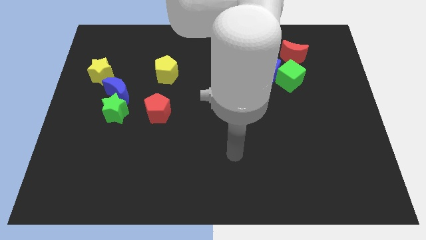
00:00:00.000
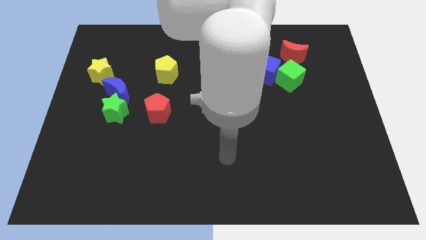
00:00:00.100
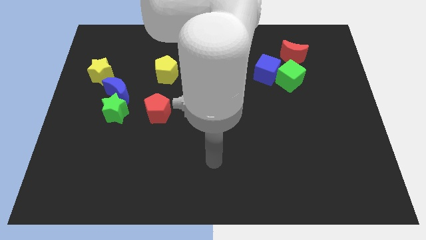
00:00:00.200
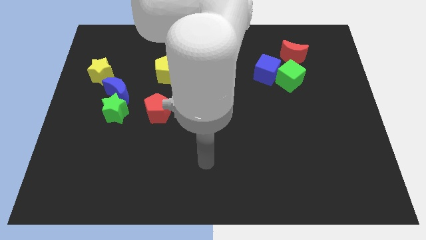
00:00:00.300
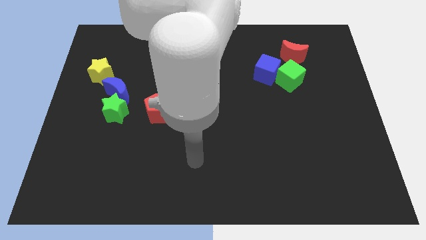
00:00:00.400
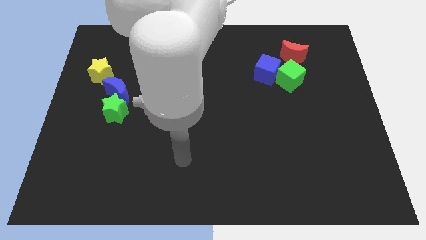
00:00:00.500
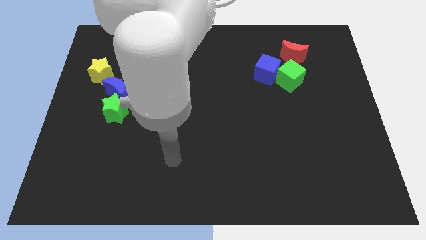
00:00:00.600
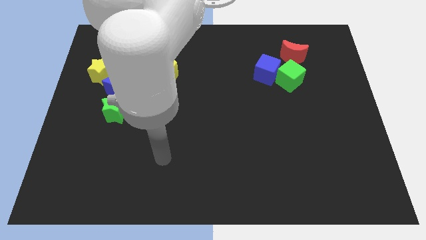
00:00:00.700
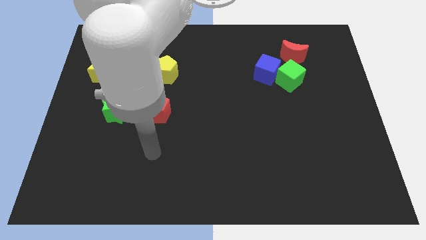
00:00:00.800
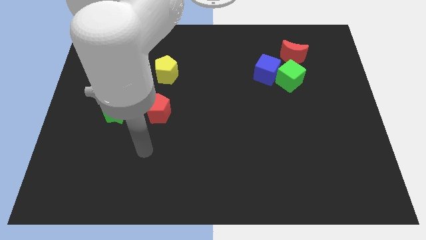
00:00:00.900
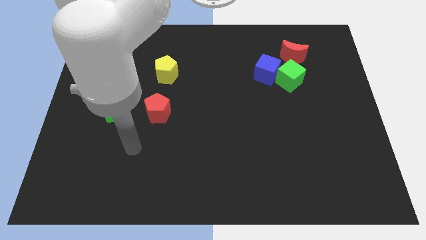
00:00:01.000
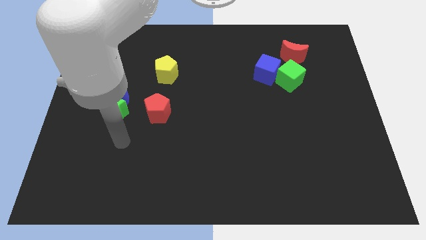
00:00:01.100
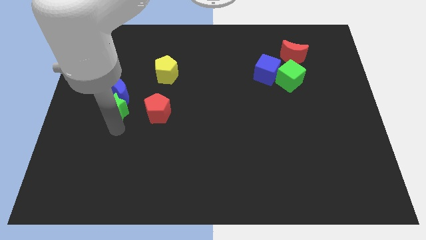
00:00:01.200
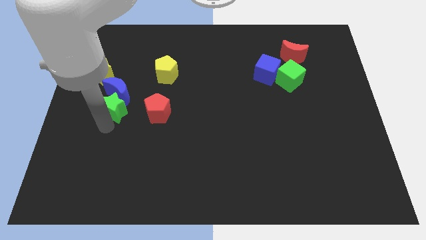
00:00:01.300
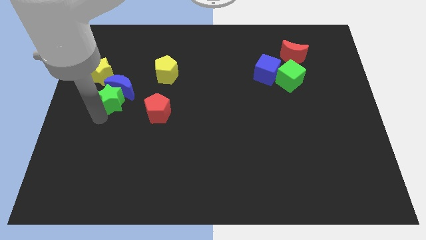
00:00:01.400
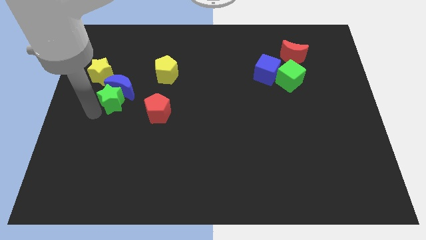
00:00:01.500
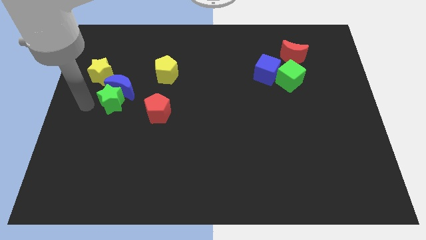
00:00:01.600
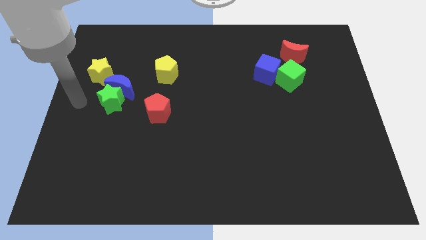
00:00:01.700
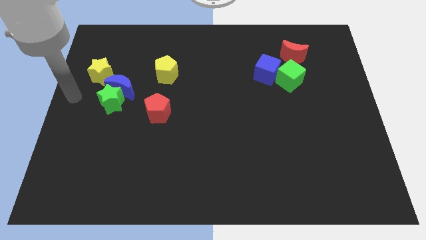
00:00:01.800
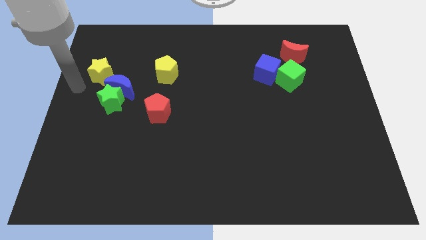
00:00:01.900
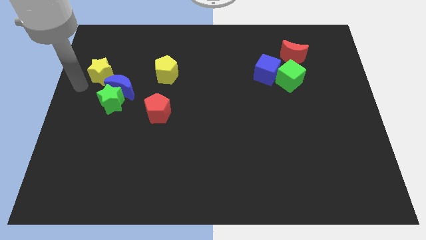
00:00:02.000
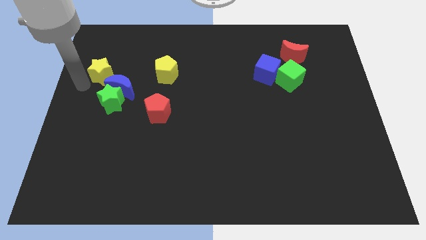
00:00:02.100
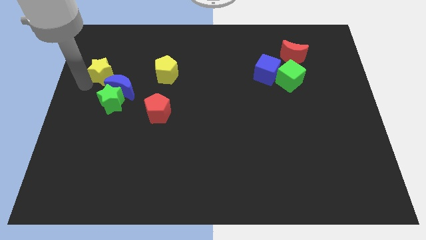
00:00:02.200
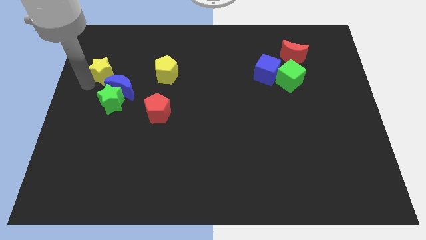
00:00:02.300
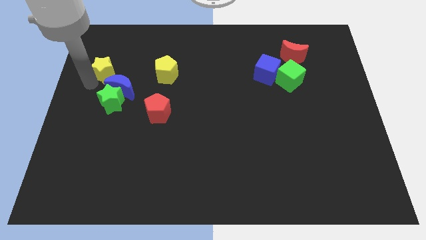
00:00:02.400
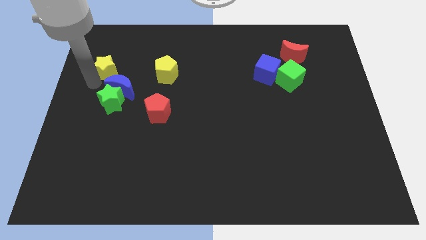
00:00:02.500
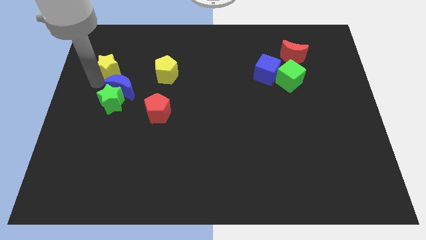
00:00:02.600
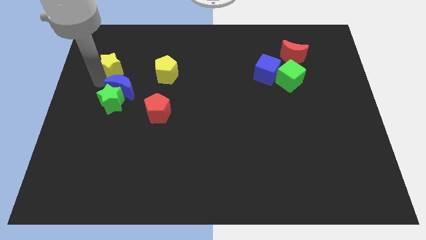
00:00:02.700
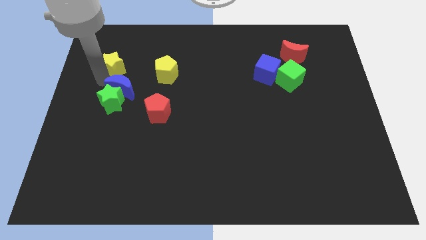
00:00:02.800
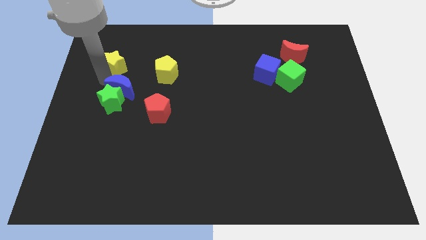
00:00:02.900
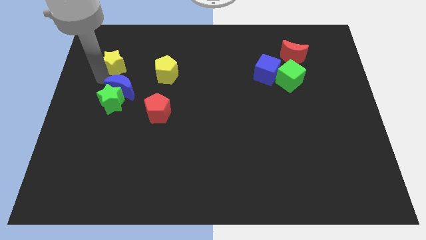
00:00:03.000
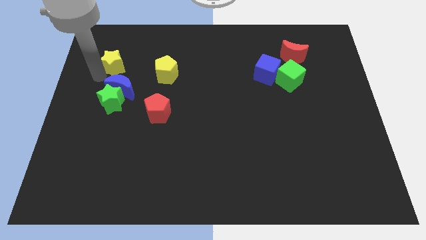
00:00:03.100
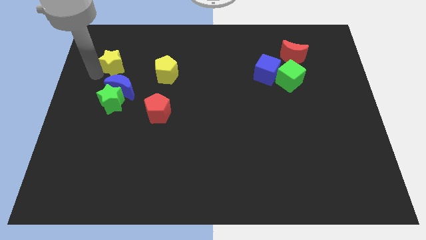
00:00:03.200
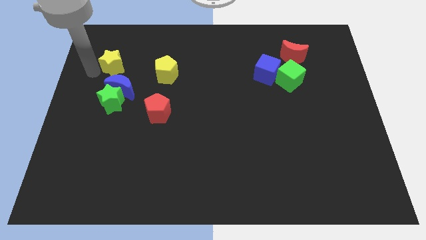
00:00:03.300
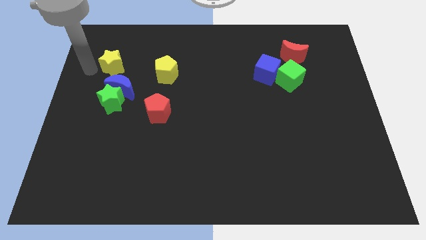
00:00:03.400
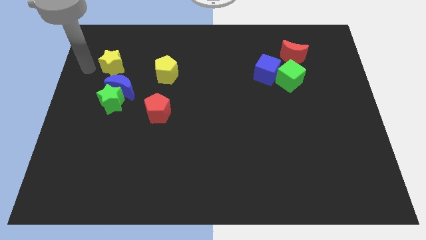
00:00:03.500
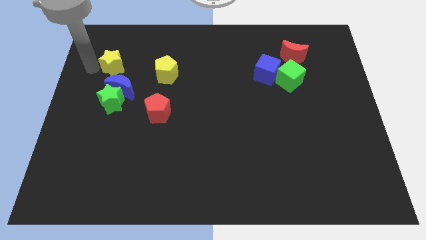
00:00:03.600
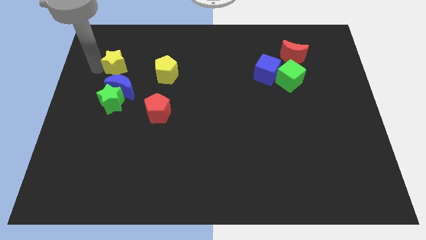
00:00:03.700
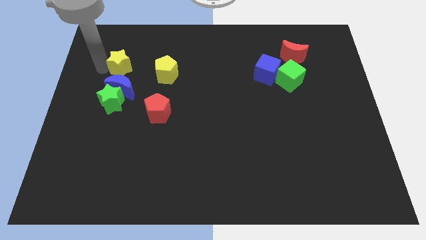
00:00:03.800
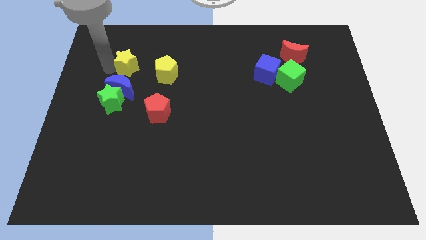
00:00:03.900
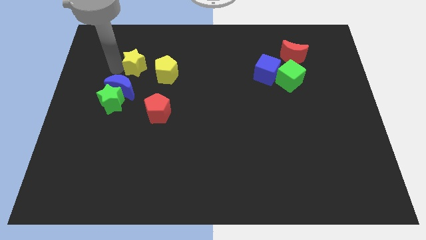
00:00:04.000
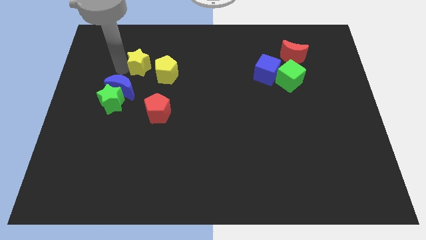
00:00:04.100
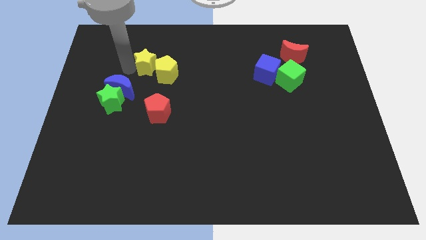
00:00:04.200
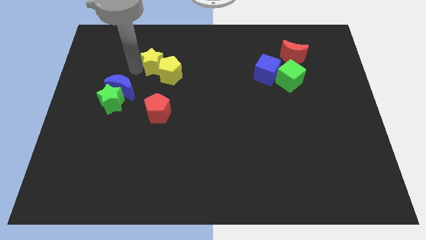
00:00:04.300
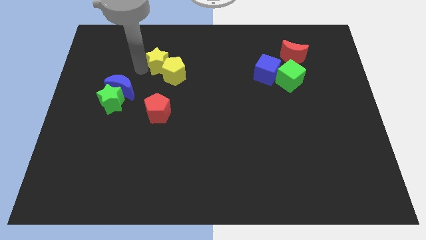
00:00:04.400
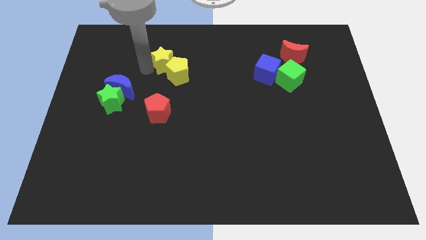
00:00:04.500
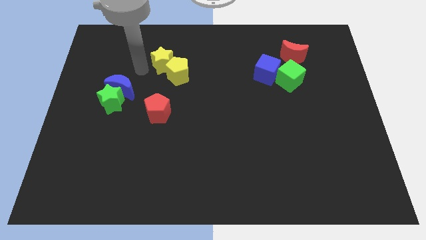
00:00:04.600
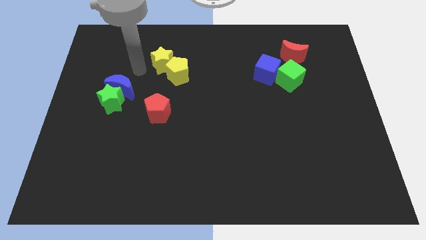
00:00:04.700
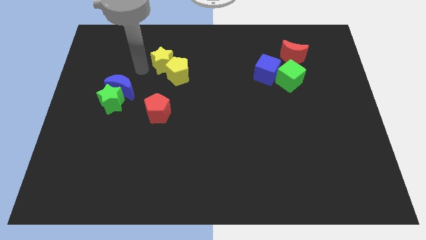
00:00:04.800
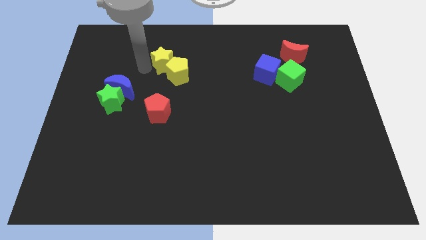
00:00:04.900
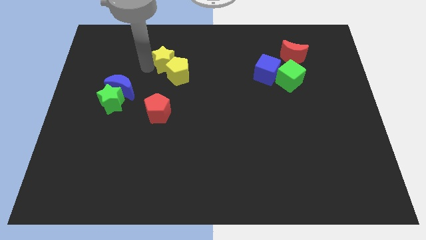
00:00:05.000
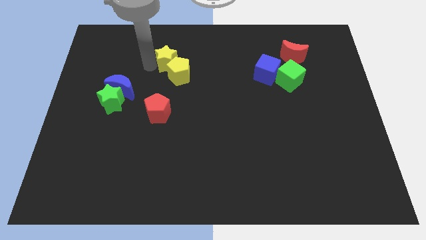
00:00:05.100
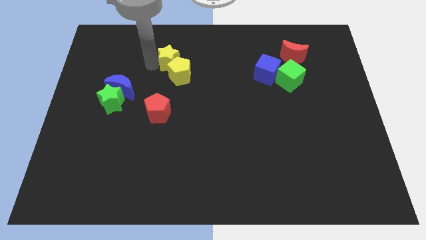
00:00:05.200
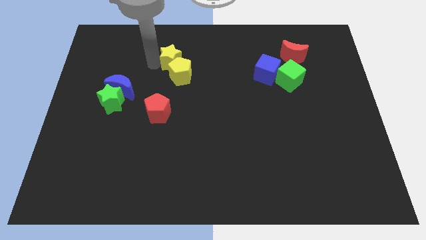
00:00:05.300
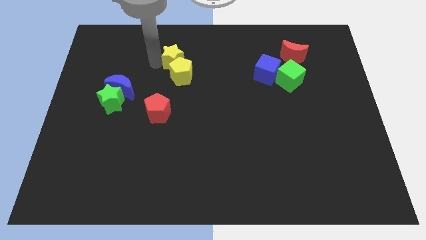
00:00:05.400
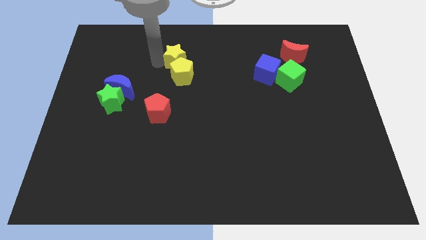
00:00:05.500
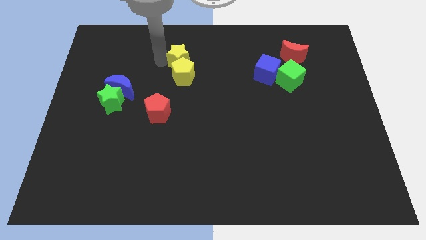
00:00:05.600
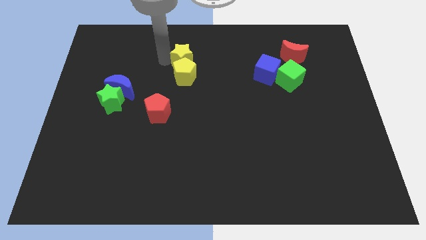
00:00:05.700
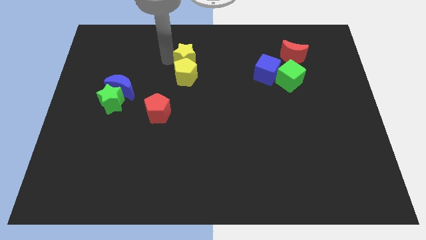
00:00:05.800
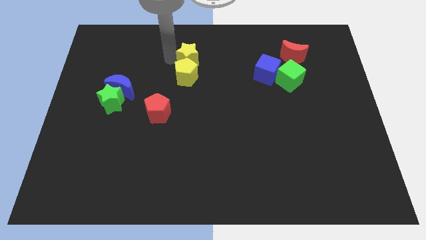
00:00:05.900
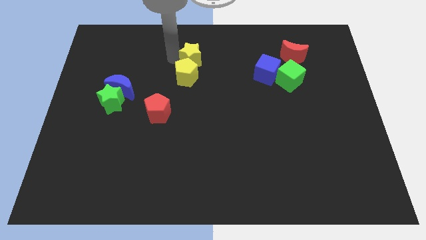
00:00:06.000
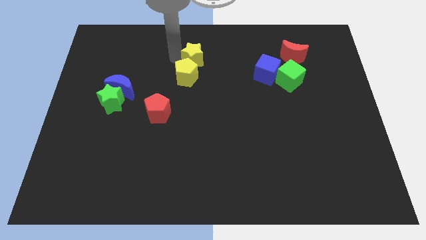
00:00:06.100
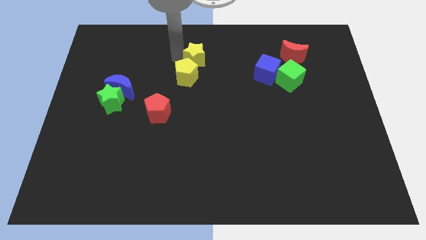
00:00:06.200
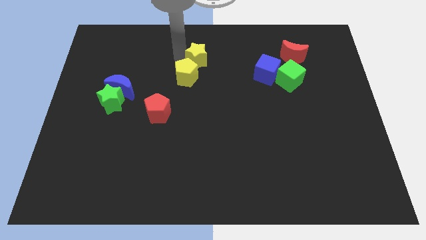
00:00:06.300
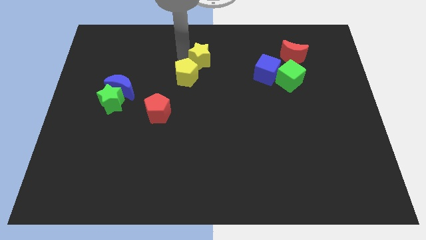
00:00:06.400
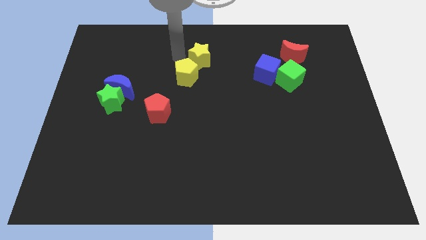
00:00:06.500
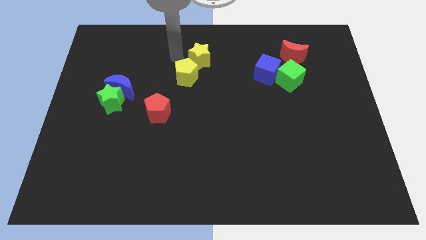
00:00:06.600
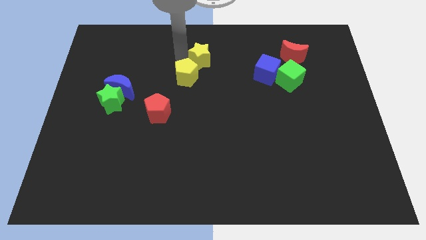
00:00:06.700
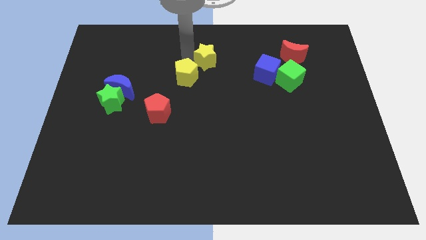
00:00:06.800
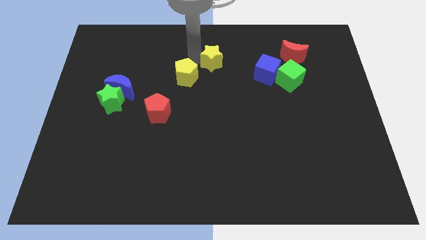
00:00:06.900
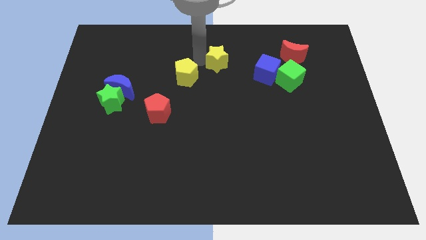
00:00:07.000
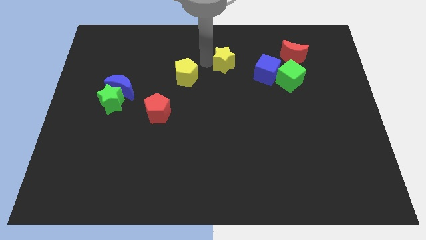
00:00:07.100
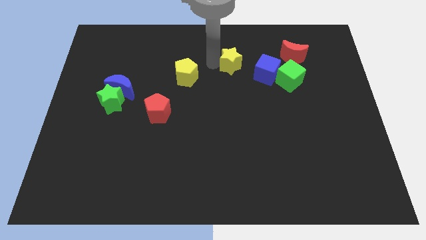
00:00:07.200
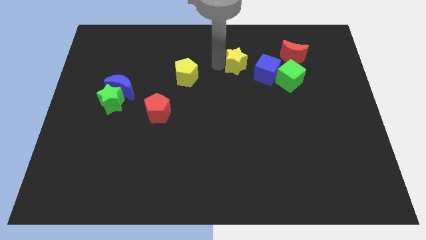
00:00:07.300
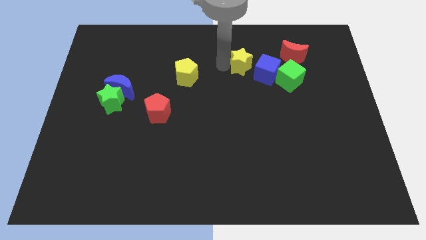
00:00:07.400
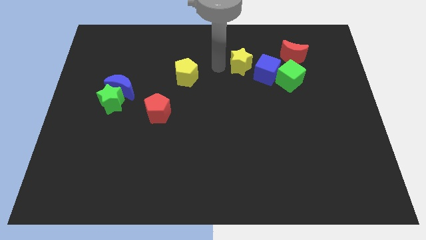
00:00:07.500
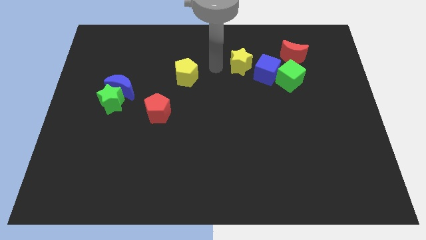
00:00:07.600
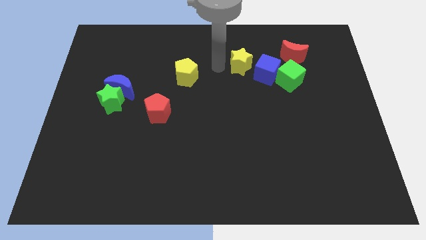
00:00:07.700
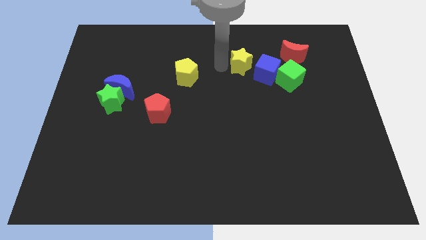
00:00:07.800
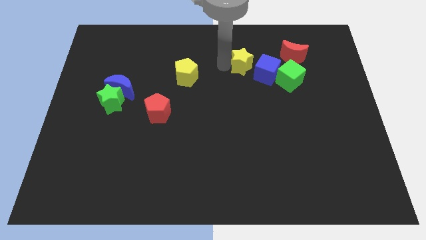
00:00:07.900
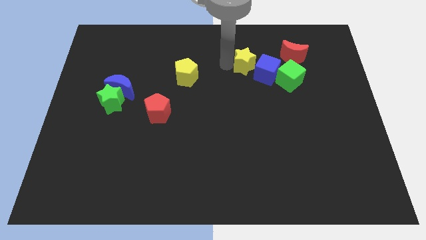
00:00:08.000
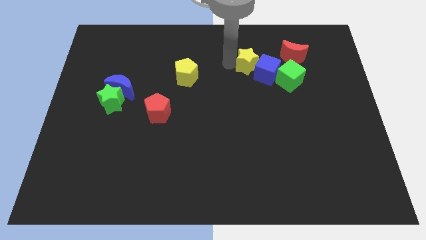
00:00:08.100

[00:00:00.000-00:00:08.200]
slide the yellow star to the top left side of the green cube
